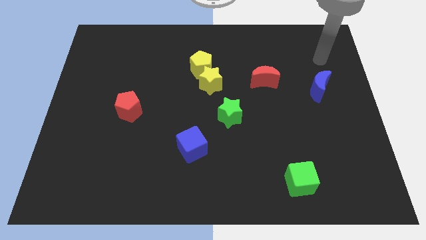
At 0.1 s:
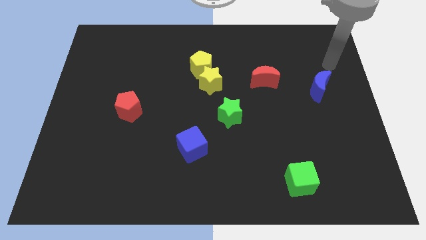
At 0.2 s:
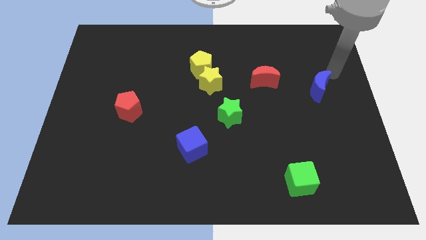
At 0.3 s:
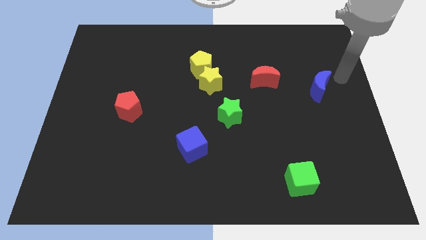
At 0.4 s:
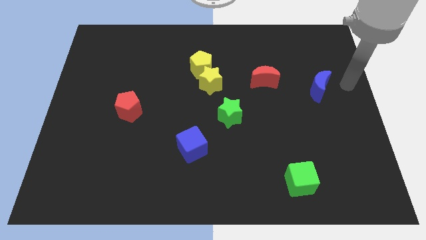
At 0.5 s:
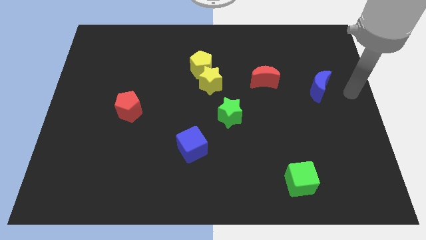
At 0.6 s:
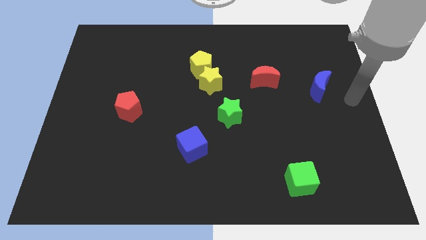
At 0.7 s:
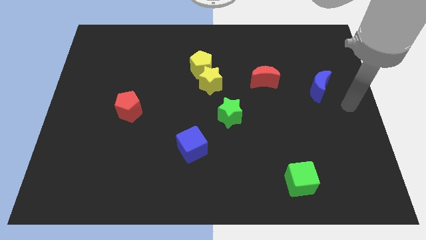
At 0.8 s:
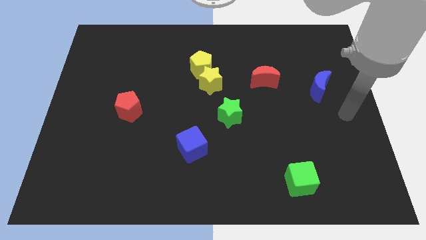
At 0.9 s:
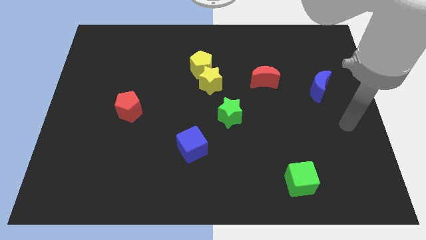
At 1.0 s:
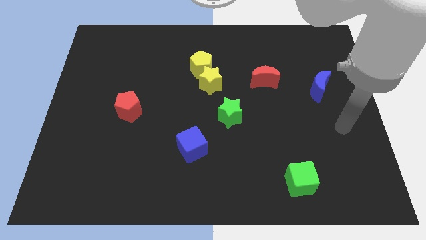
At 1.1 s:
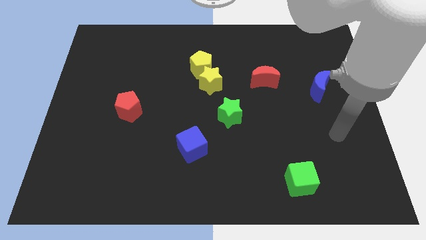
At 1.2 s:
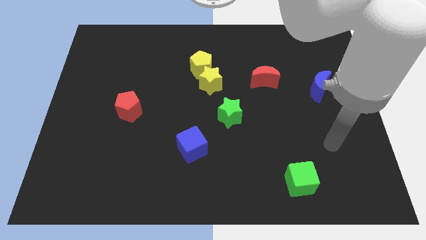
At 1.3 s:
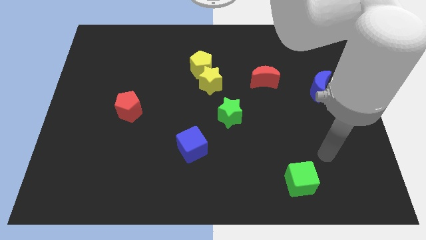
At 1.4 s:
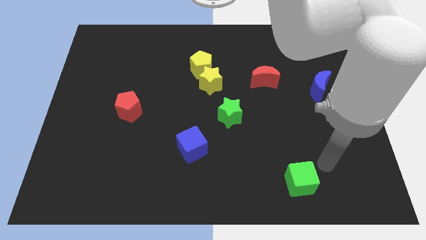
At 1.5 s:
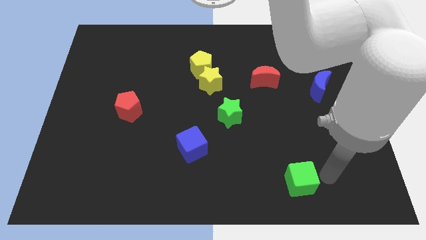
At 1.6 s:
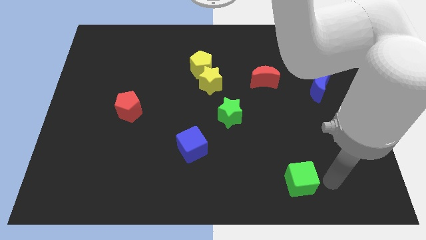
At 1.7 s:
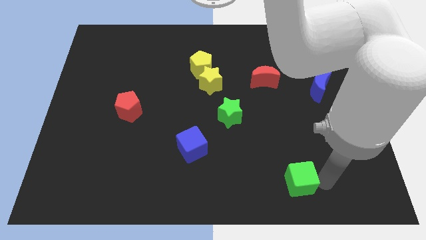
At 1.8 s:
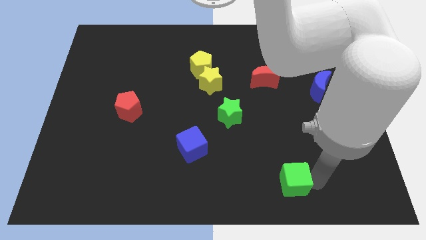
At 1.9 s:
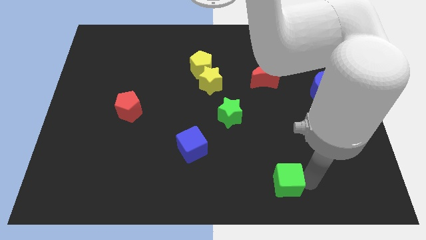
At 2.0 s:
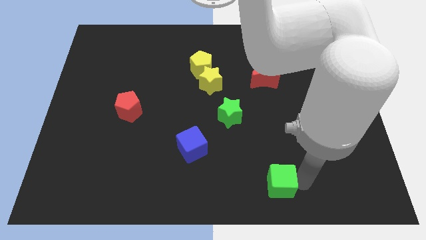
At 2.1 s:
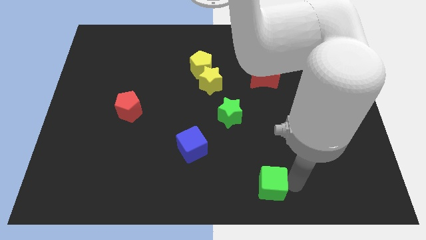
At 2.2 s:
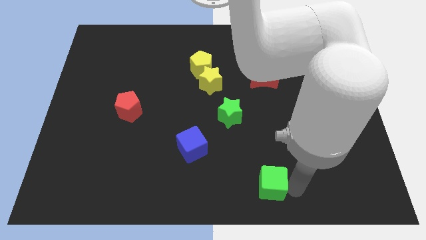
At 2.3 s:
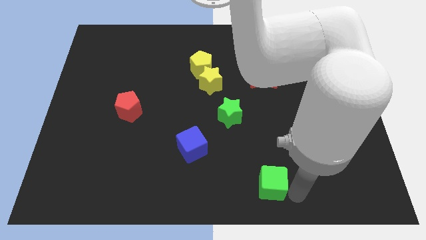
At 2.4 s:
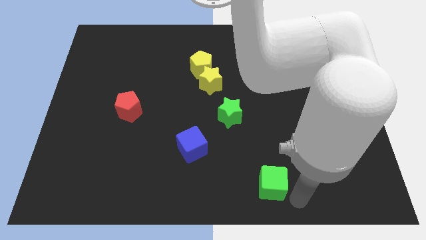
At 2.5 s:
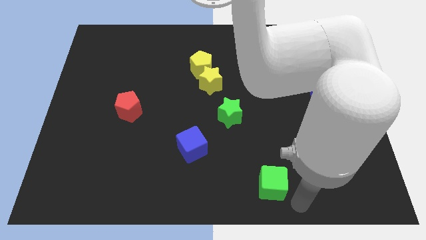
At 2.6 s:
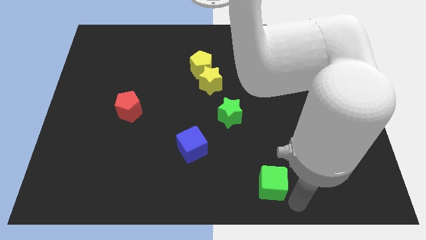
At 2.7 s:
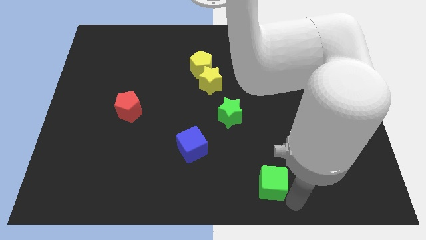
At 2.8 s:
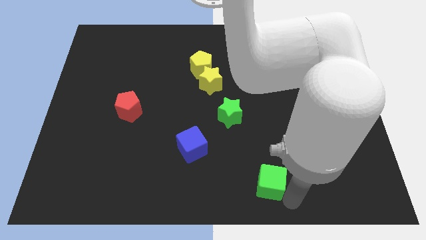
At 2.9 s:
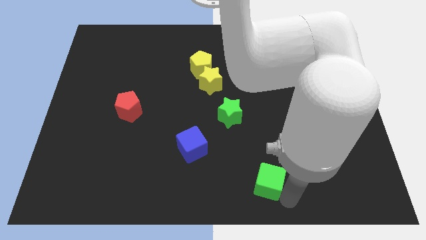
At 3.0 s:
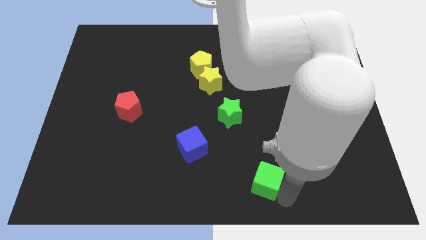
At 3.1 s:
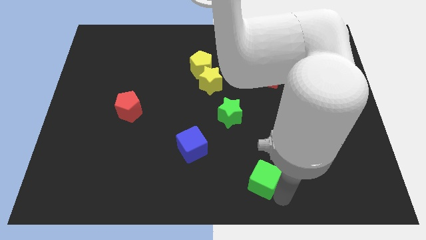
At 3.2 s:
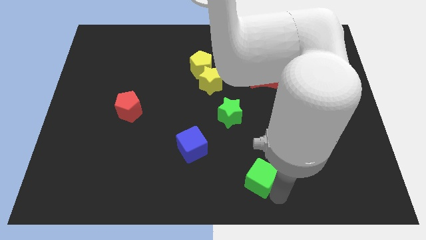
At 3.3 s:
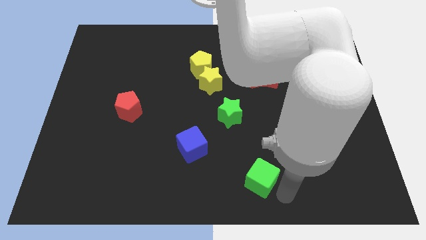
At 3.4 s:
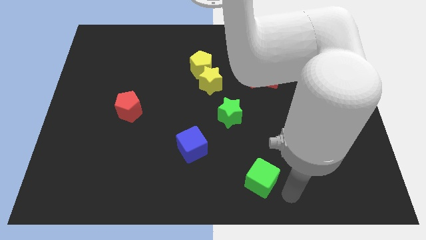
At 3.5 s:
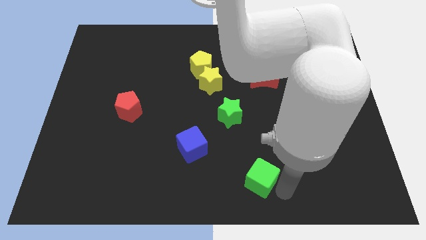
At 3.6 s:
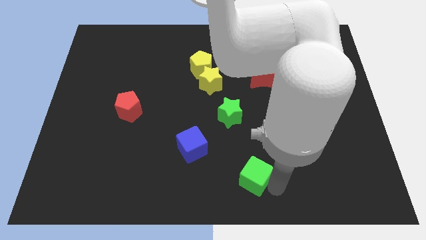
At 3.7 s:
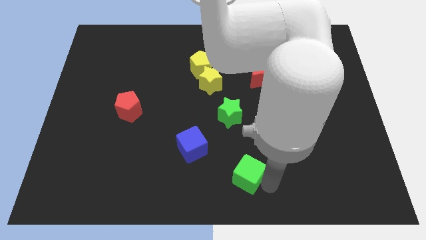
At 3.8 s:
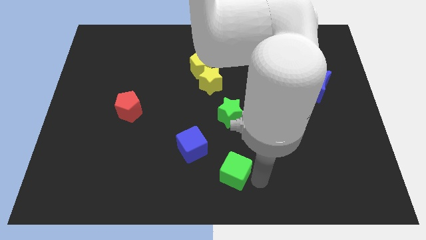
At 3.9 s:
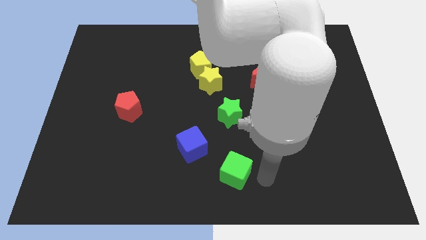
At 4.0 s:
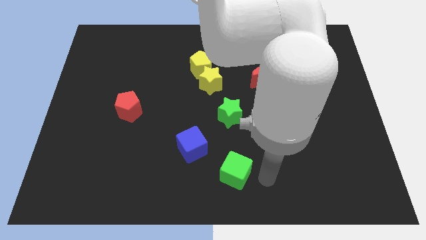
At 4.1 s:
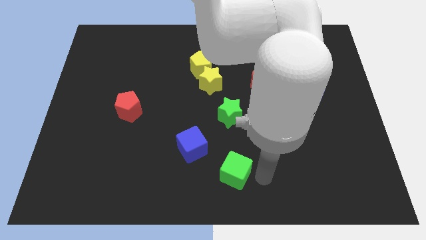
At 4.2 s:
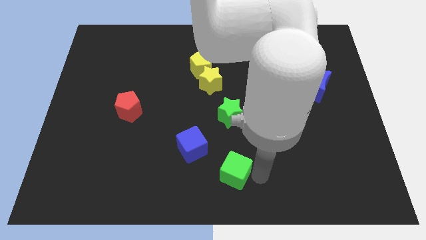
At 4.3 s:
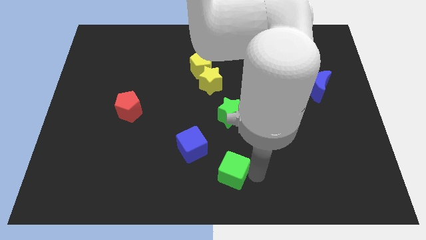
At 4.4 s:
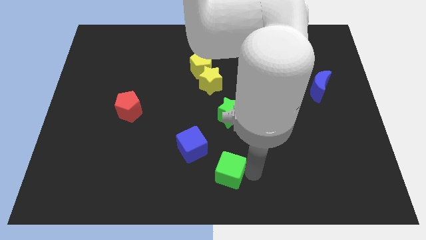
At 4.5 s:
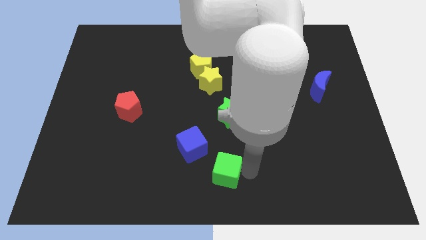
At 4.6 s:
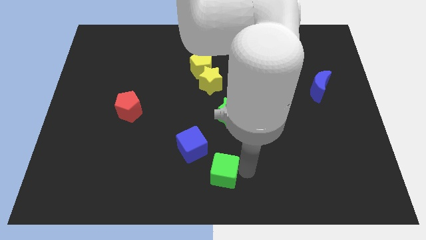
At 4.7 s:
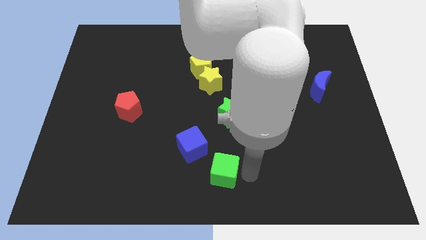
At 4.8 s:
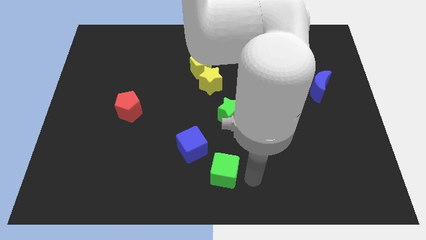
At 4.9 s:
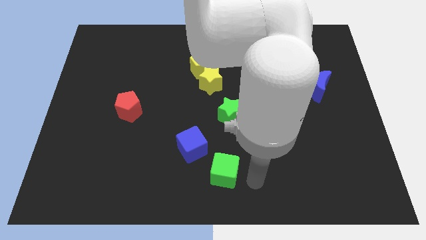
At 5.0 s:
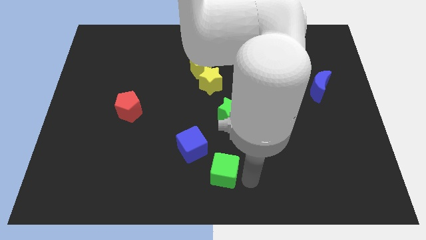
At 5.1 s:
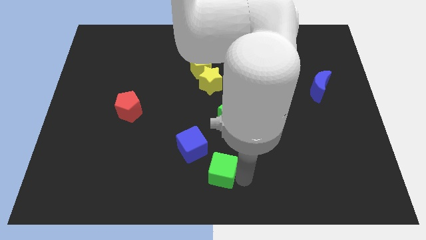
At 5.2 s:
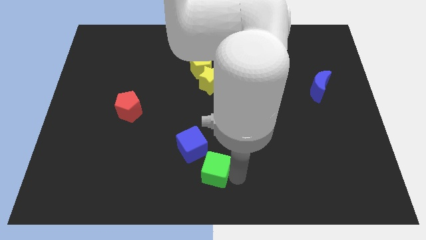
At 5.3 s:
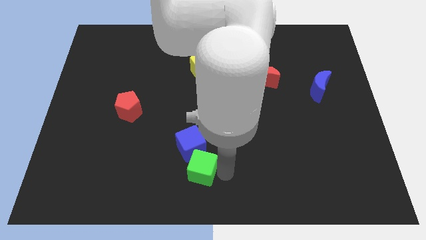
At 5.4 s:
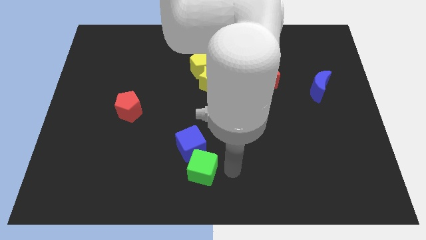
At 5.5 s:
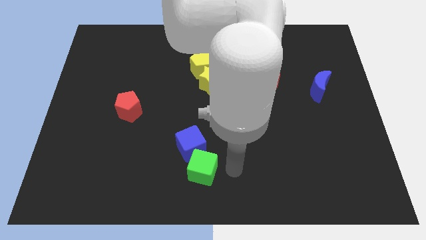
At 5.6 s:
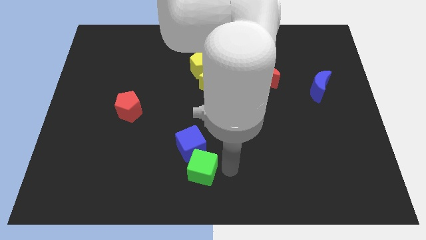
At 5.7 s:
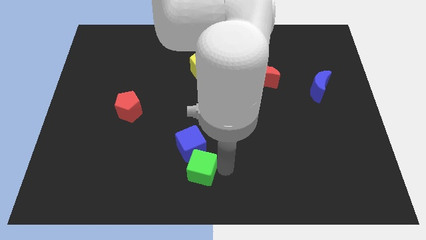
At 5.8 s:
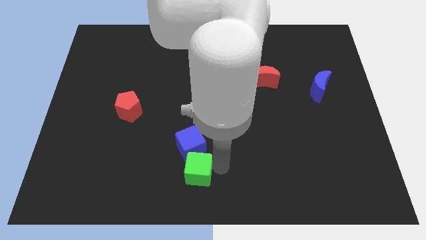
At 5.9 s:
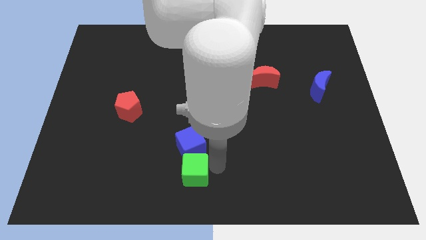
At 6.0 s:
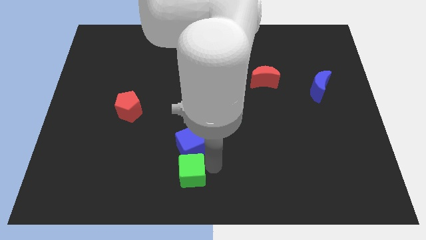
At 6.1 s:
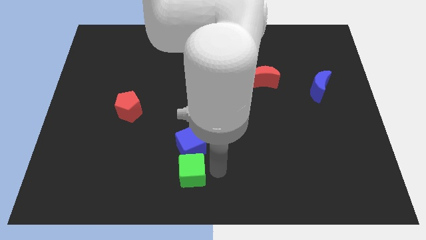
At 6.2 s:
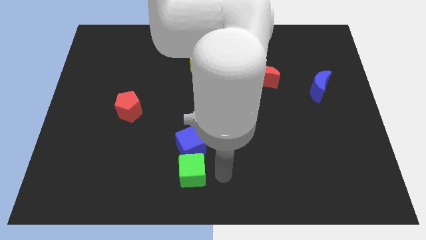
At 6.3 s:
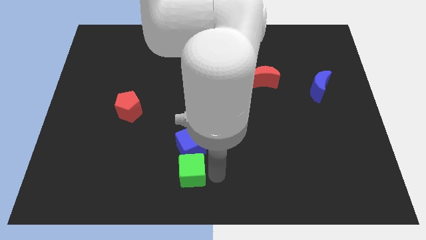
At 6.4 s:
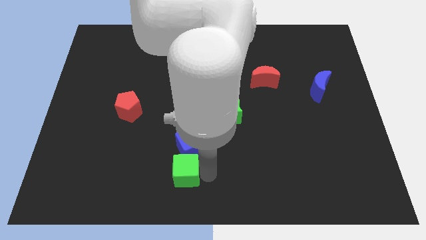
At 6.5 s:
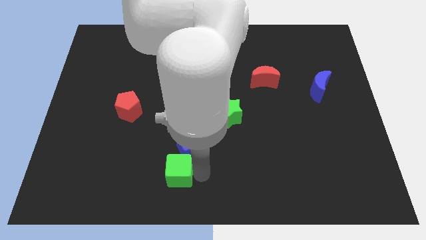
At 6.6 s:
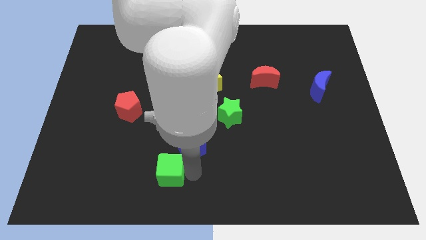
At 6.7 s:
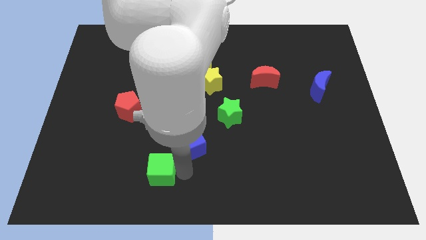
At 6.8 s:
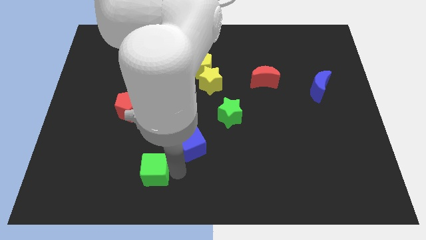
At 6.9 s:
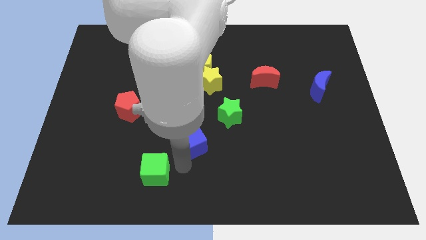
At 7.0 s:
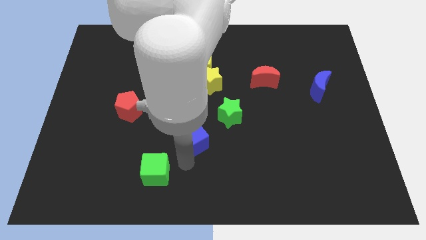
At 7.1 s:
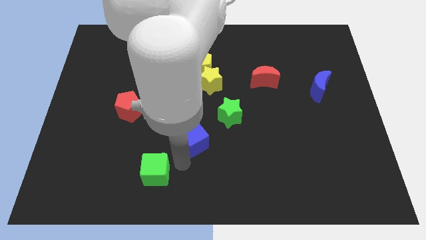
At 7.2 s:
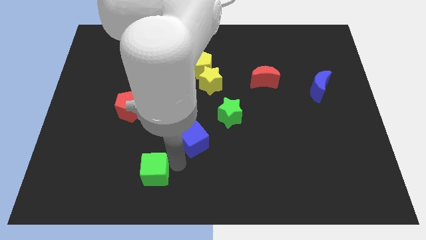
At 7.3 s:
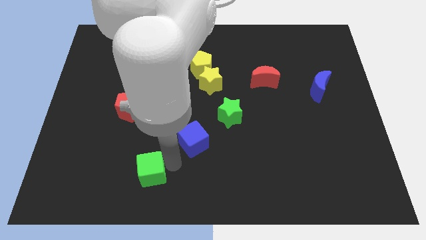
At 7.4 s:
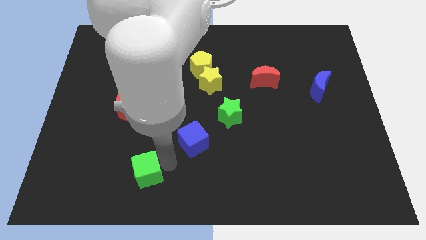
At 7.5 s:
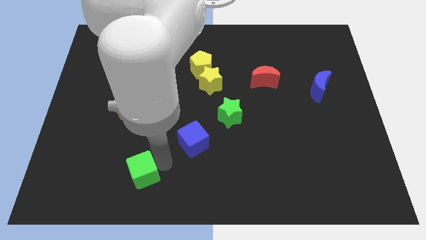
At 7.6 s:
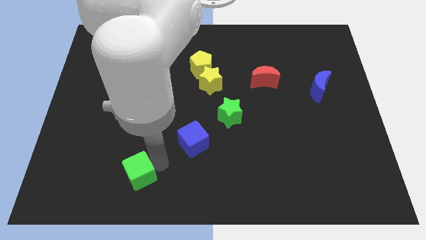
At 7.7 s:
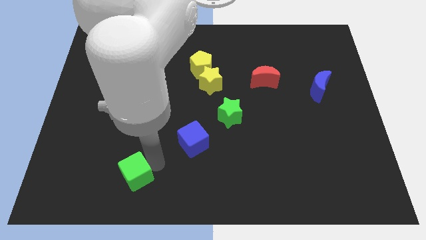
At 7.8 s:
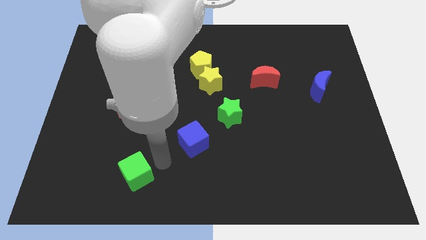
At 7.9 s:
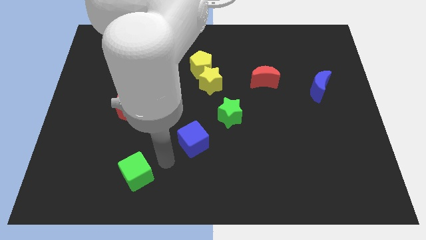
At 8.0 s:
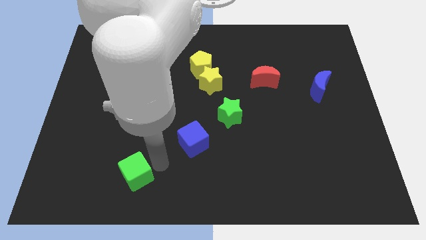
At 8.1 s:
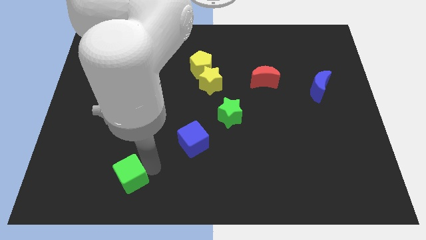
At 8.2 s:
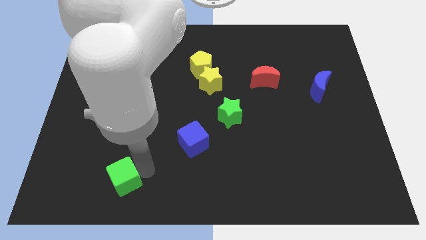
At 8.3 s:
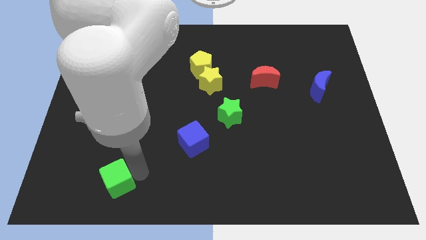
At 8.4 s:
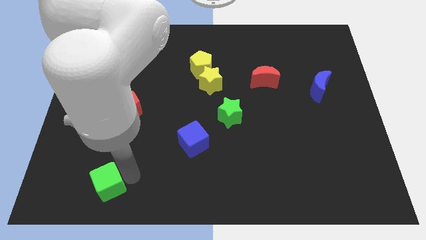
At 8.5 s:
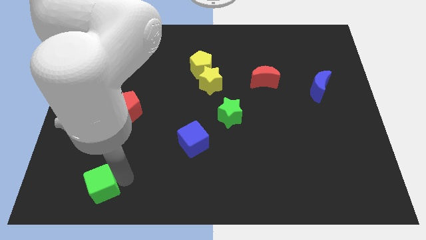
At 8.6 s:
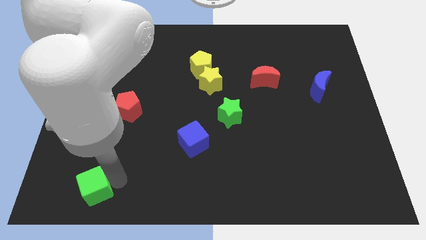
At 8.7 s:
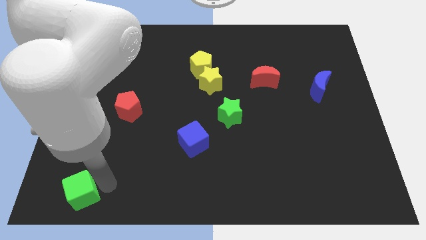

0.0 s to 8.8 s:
slide the green cube to the bottom left of the board
